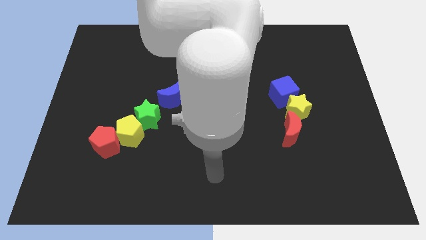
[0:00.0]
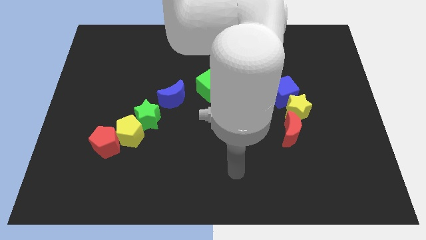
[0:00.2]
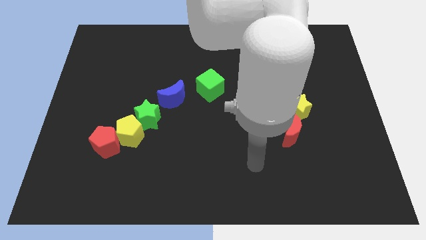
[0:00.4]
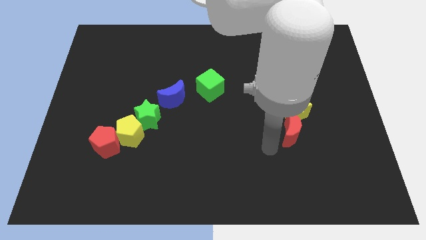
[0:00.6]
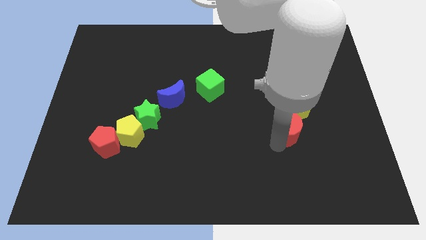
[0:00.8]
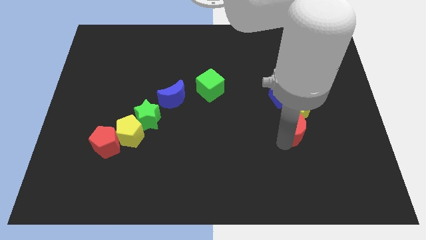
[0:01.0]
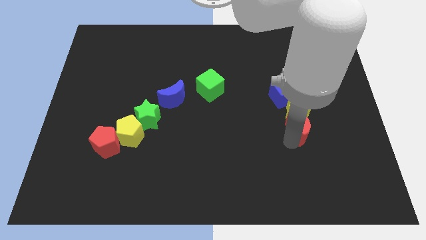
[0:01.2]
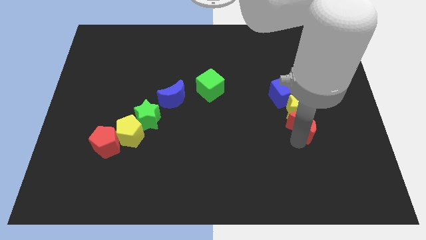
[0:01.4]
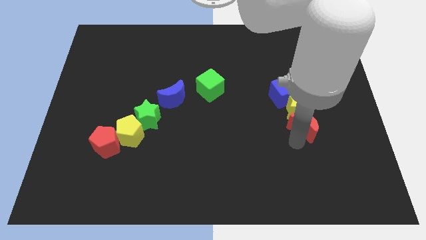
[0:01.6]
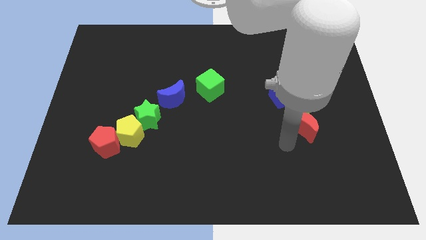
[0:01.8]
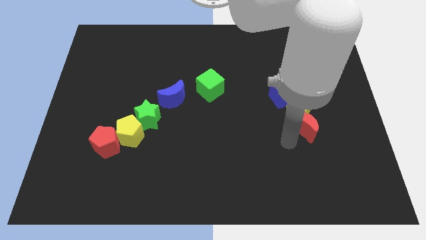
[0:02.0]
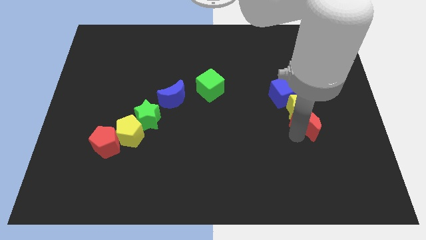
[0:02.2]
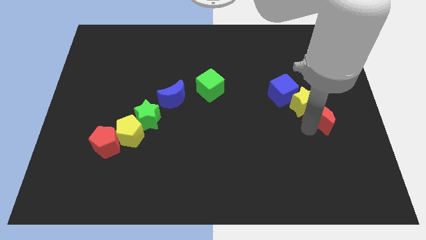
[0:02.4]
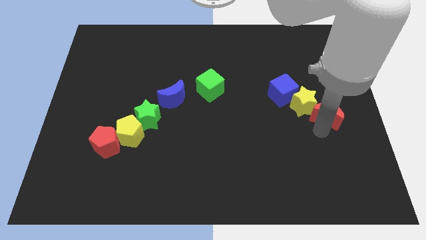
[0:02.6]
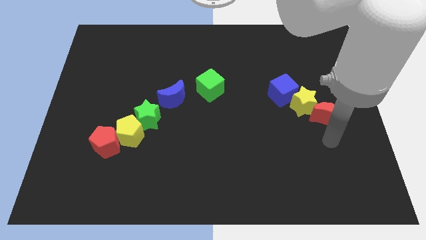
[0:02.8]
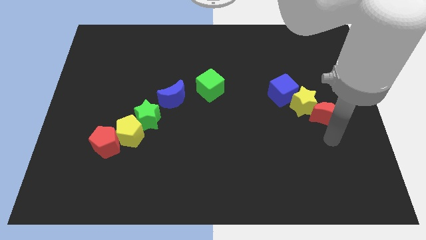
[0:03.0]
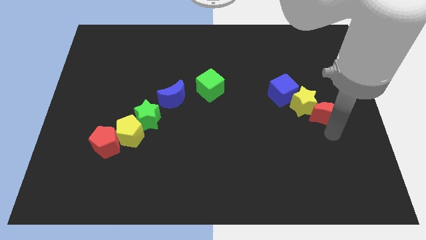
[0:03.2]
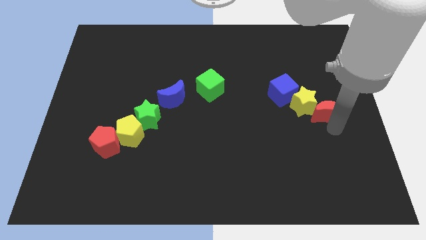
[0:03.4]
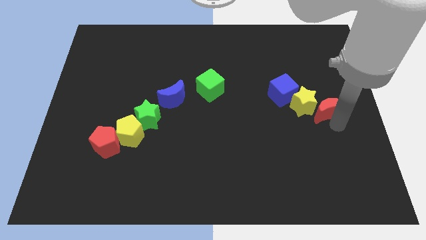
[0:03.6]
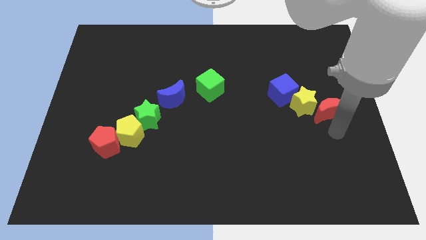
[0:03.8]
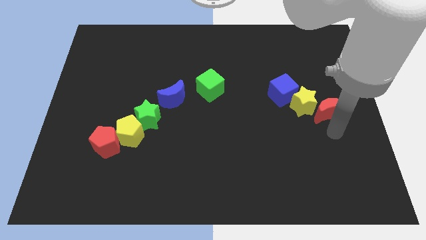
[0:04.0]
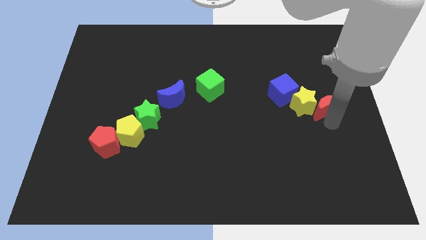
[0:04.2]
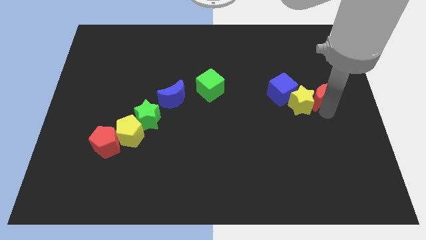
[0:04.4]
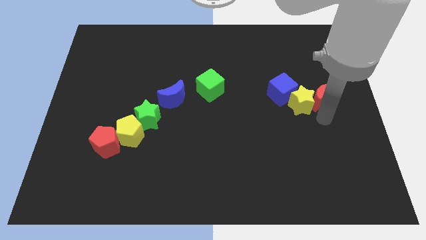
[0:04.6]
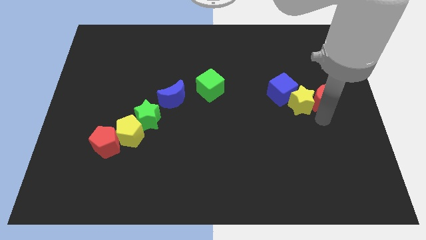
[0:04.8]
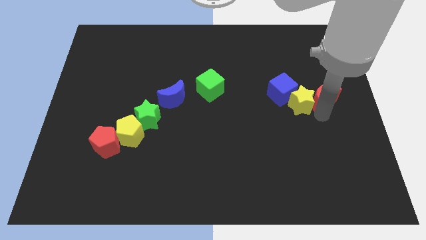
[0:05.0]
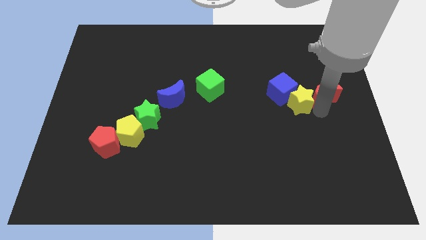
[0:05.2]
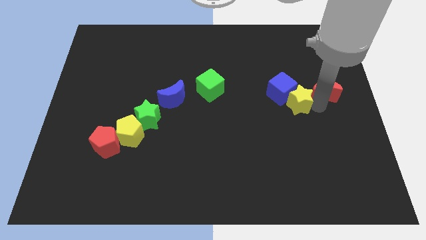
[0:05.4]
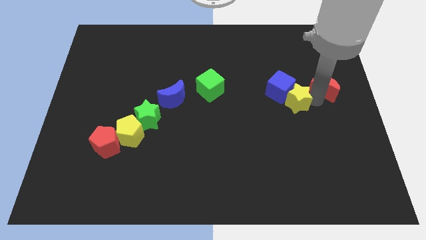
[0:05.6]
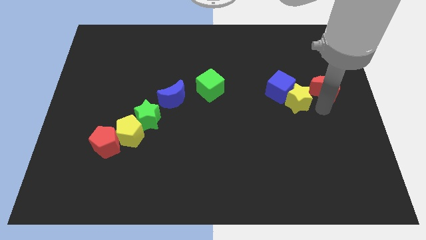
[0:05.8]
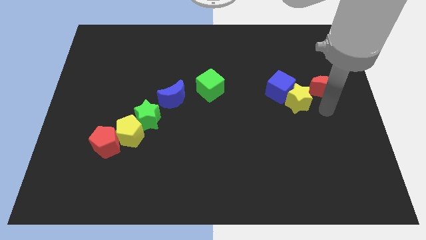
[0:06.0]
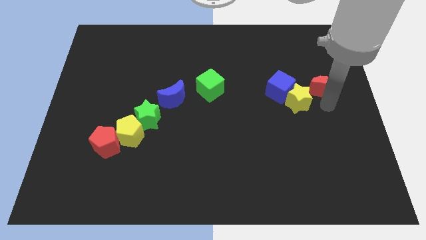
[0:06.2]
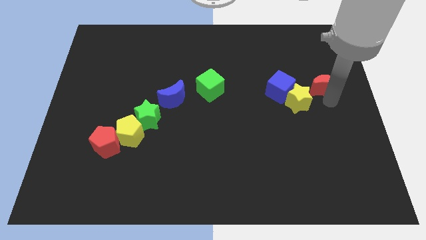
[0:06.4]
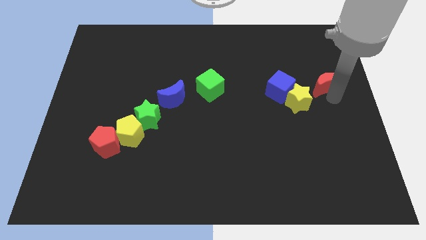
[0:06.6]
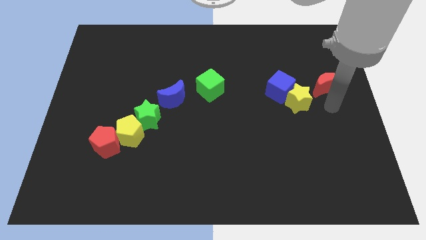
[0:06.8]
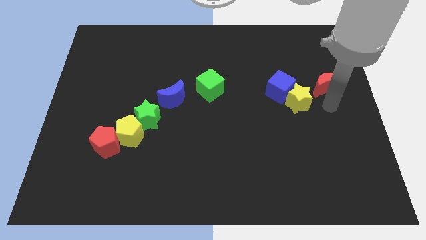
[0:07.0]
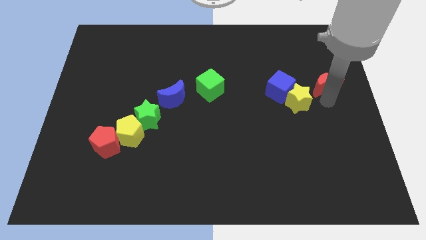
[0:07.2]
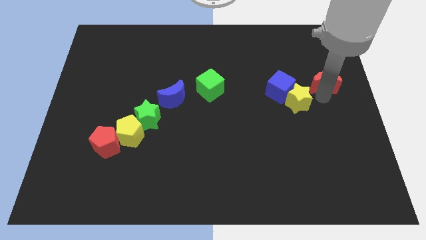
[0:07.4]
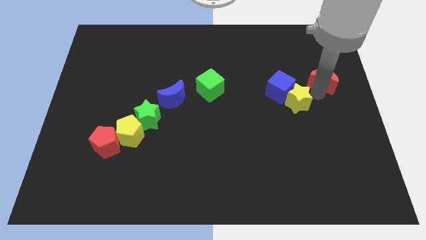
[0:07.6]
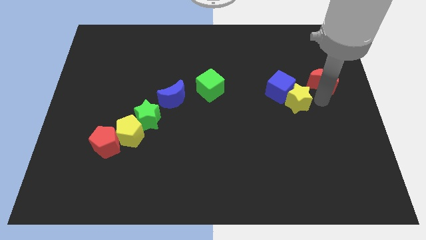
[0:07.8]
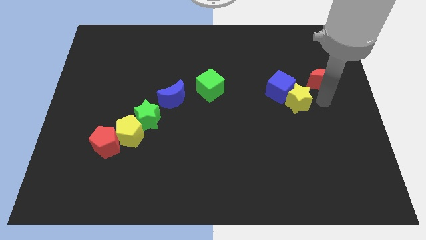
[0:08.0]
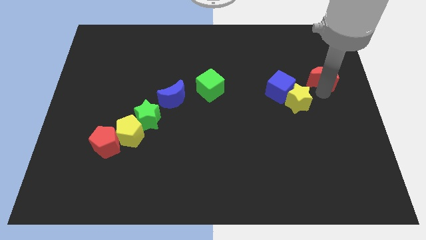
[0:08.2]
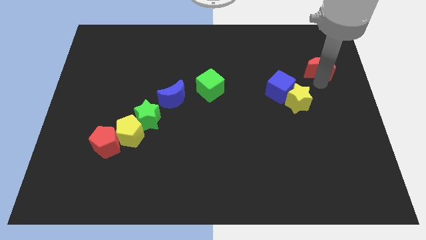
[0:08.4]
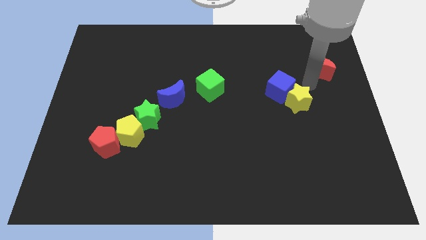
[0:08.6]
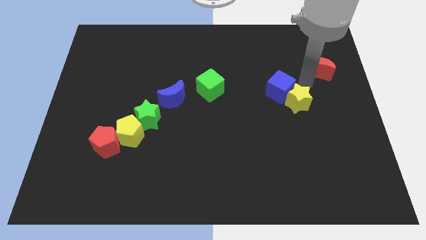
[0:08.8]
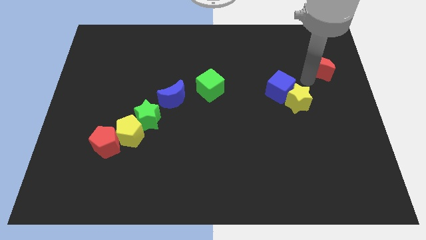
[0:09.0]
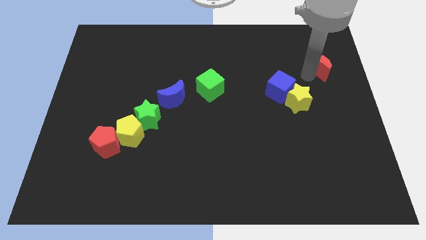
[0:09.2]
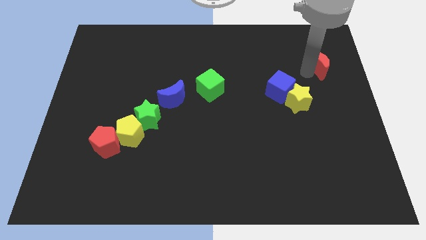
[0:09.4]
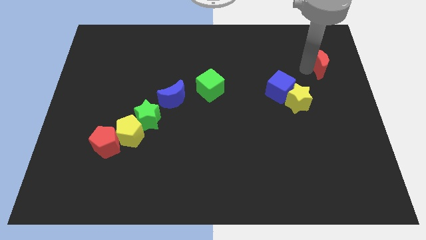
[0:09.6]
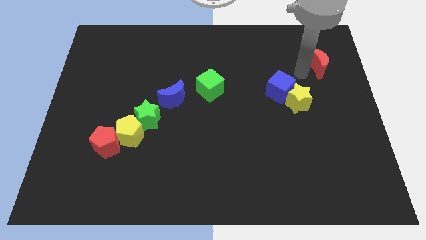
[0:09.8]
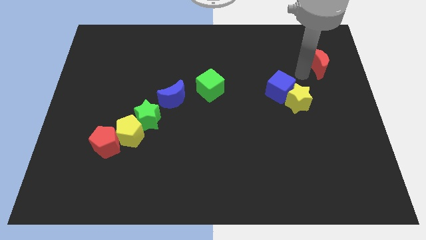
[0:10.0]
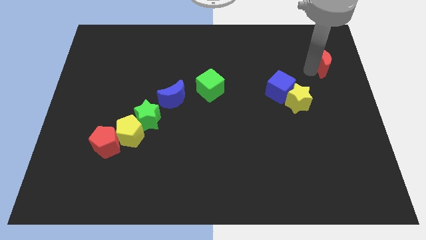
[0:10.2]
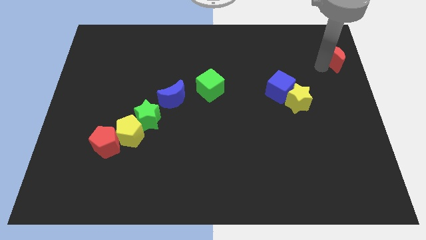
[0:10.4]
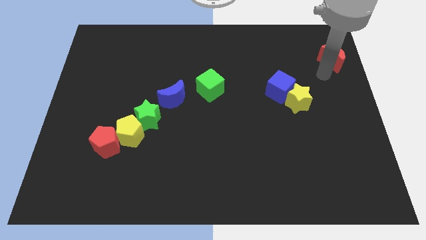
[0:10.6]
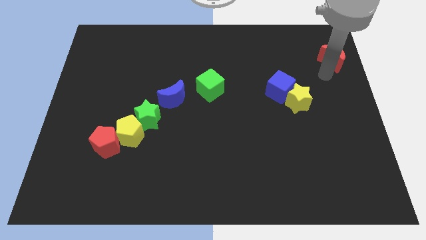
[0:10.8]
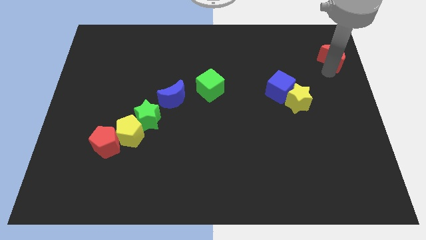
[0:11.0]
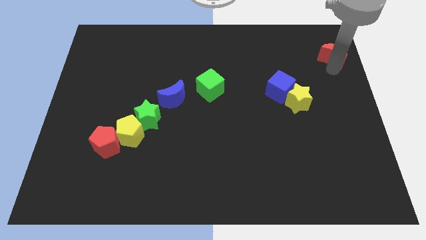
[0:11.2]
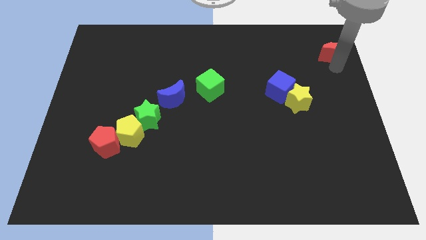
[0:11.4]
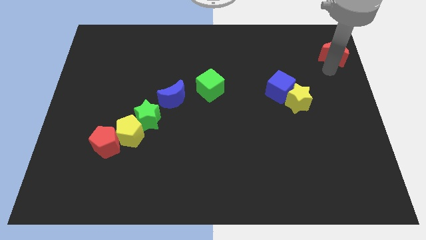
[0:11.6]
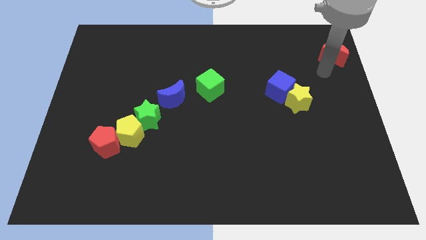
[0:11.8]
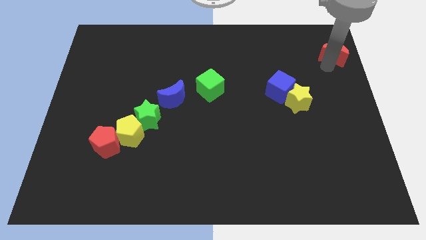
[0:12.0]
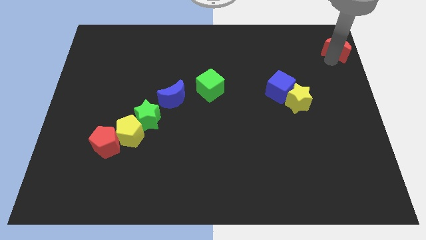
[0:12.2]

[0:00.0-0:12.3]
push the red moon to the top right of the board
